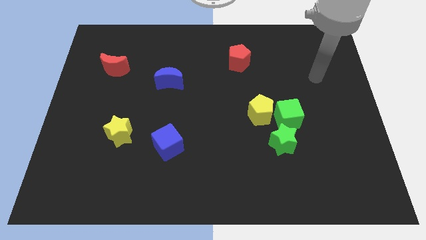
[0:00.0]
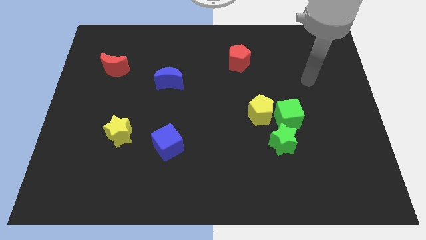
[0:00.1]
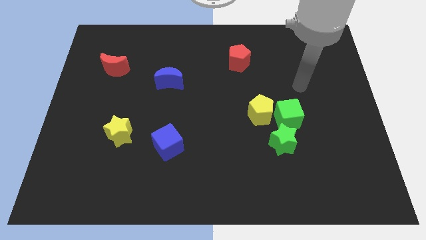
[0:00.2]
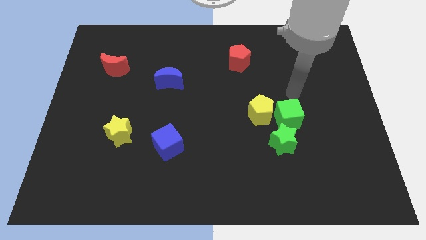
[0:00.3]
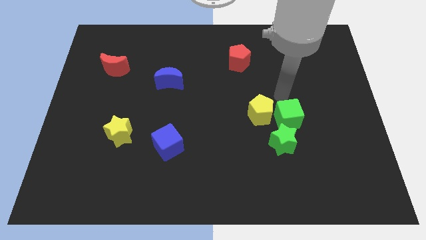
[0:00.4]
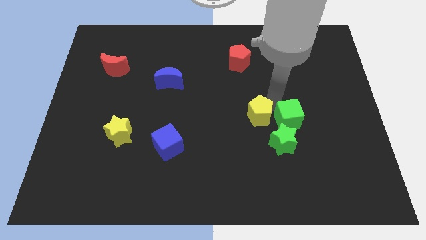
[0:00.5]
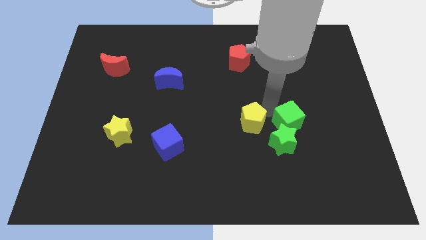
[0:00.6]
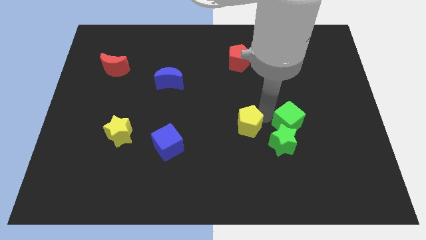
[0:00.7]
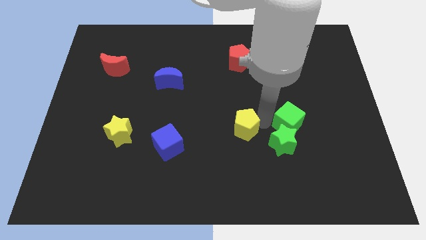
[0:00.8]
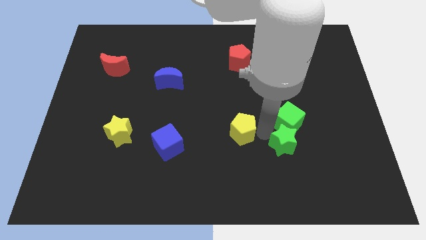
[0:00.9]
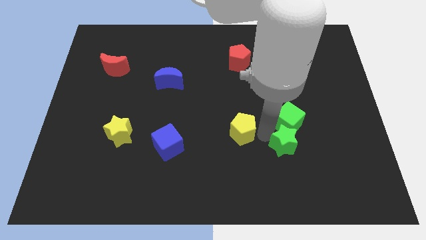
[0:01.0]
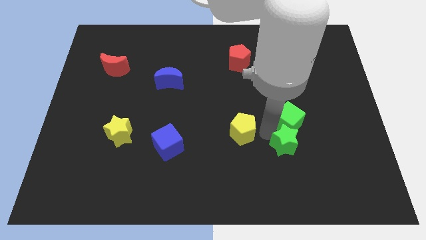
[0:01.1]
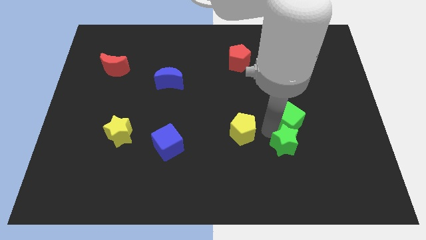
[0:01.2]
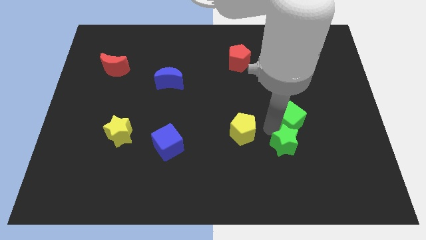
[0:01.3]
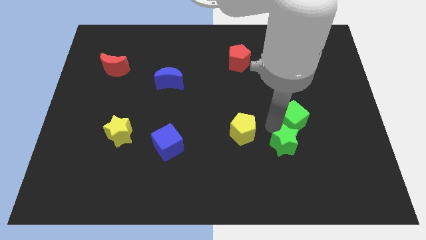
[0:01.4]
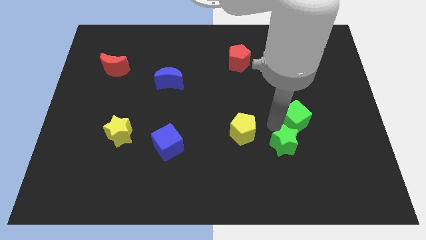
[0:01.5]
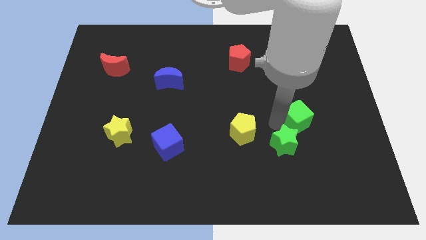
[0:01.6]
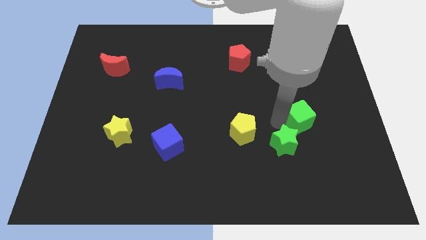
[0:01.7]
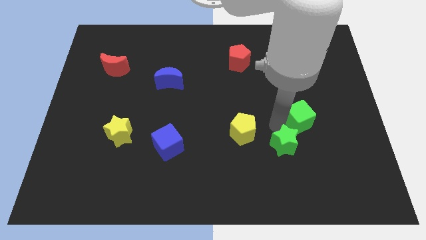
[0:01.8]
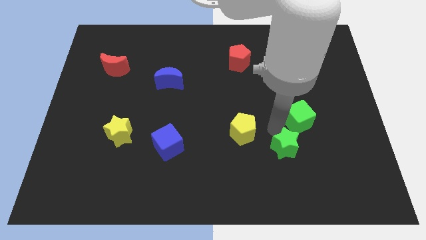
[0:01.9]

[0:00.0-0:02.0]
pull the green cube apart from the yellow pentagon and green star

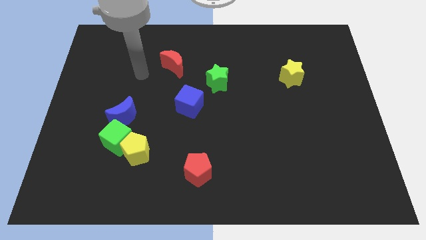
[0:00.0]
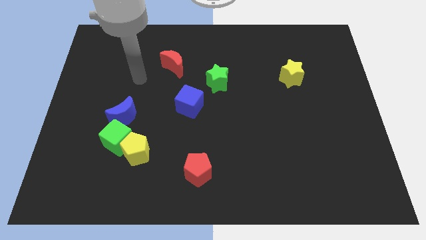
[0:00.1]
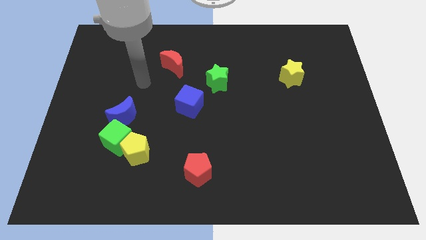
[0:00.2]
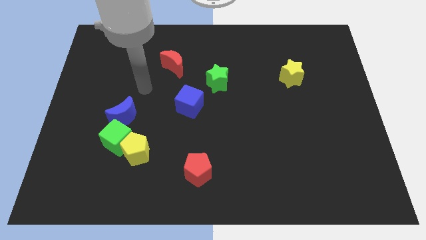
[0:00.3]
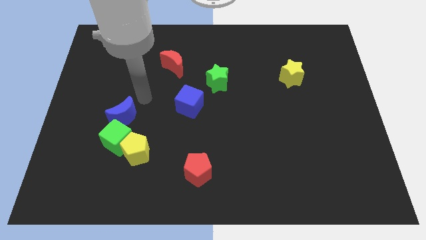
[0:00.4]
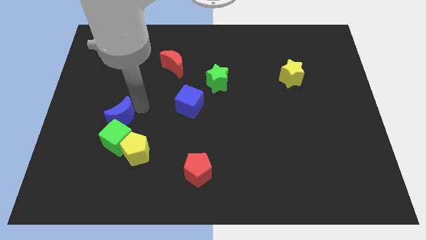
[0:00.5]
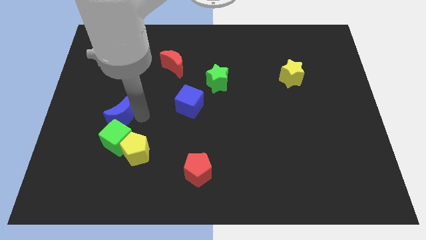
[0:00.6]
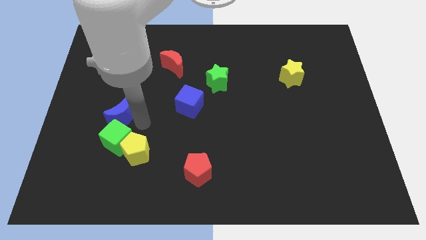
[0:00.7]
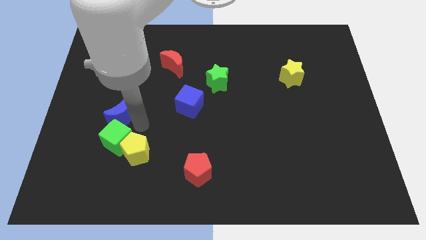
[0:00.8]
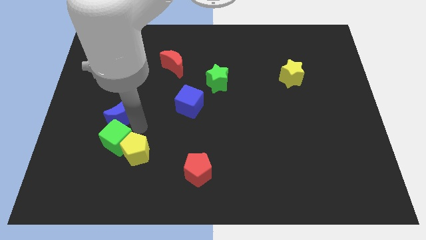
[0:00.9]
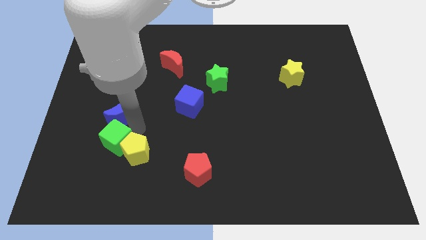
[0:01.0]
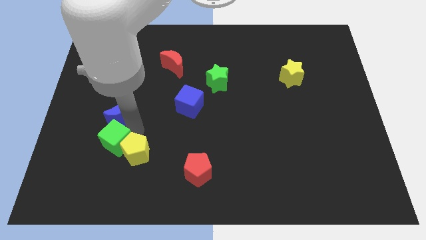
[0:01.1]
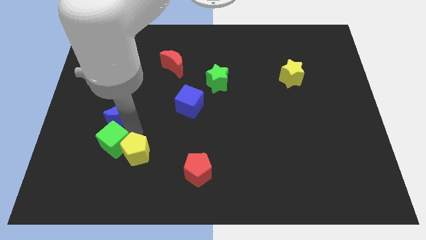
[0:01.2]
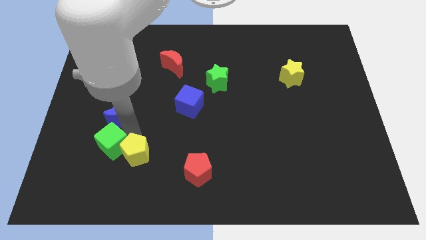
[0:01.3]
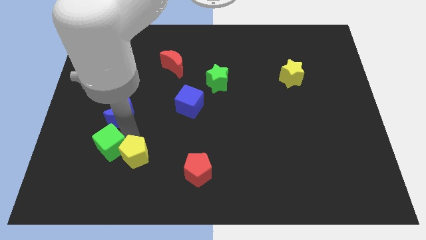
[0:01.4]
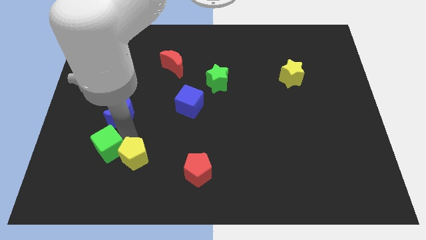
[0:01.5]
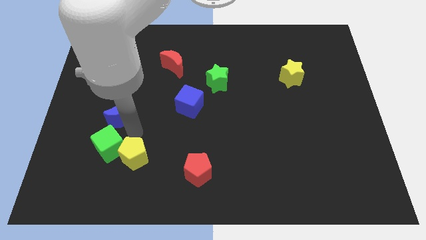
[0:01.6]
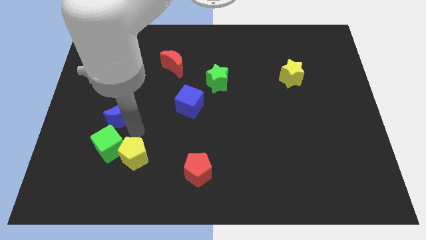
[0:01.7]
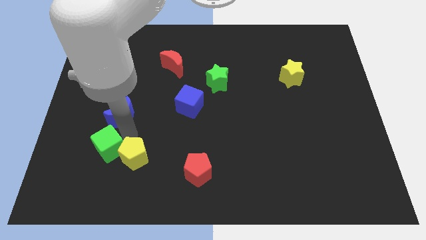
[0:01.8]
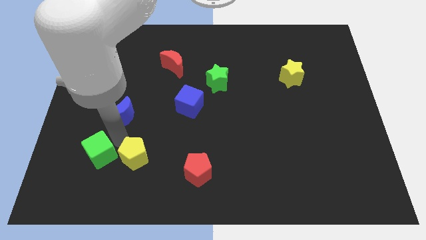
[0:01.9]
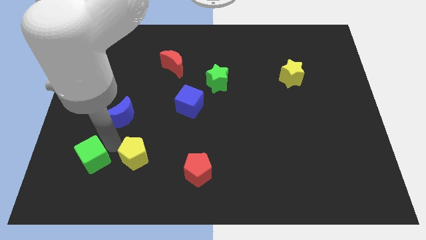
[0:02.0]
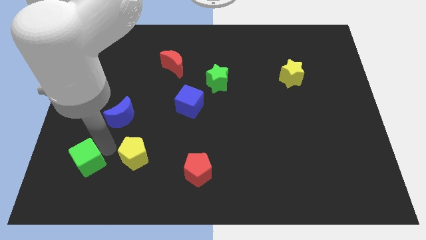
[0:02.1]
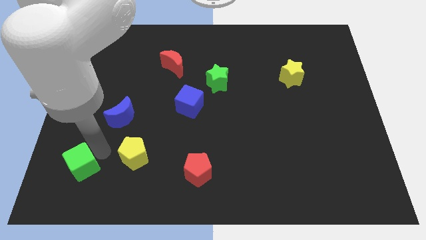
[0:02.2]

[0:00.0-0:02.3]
move the green cube away from the yellow pentagon and blue moon

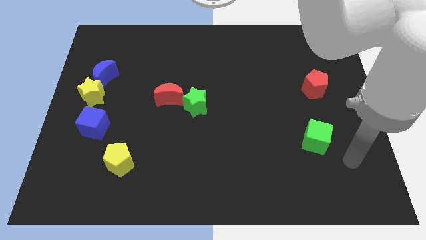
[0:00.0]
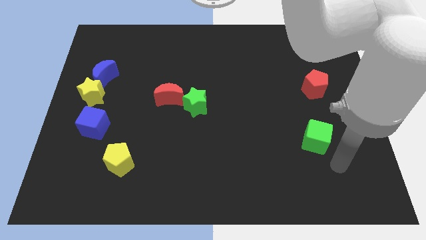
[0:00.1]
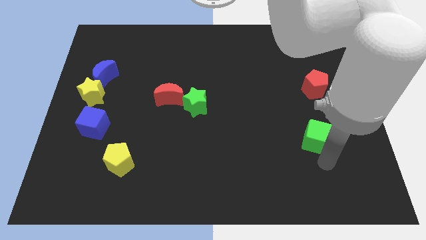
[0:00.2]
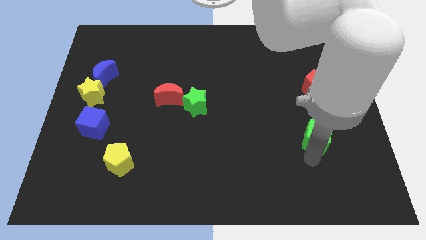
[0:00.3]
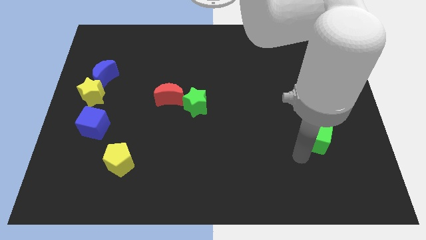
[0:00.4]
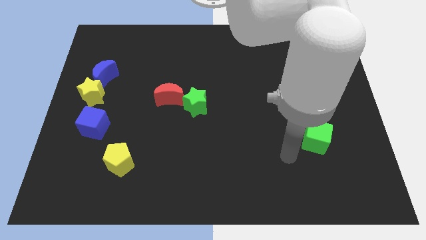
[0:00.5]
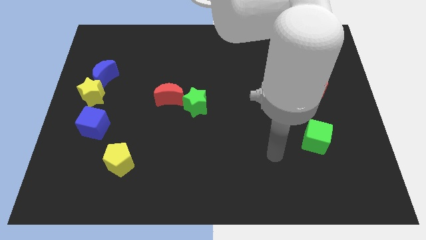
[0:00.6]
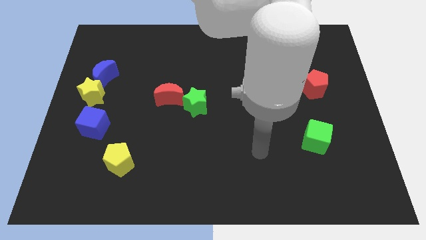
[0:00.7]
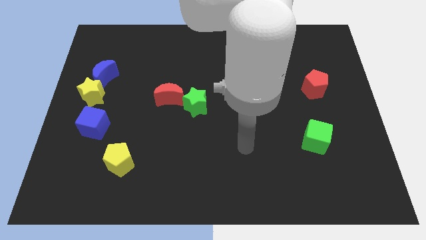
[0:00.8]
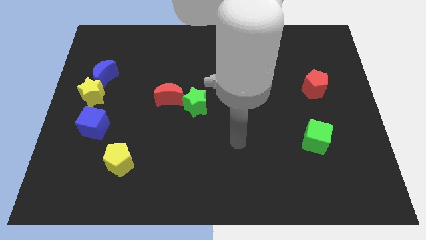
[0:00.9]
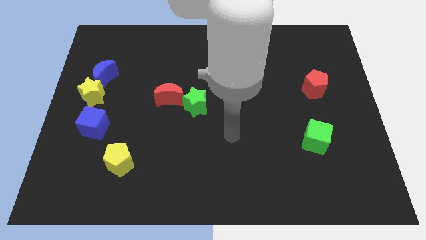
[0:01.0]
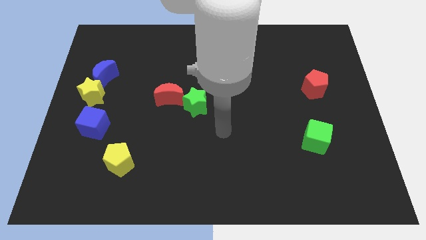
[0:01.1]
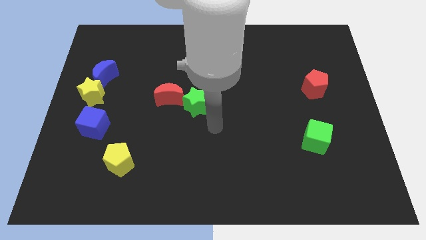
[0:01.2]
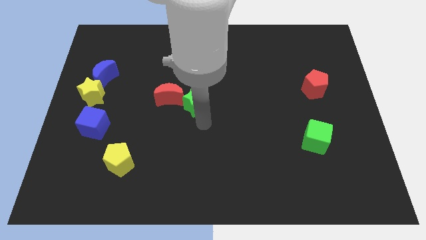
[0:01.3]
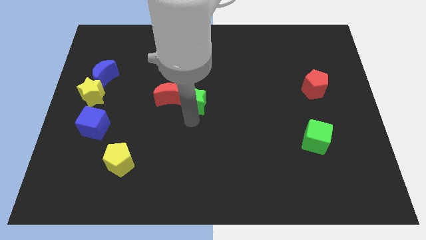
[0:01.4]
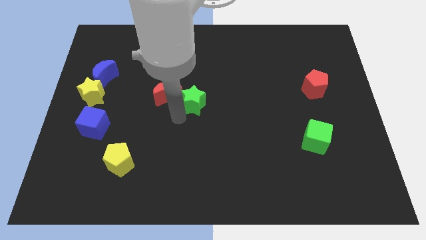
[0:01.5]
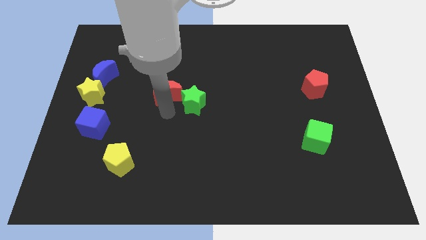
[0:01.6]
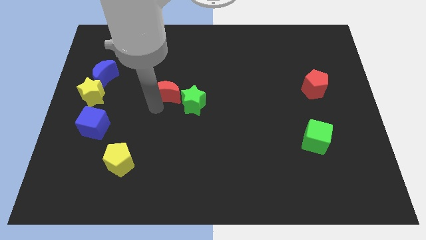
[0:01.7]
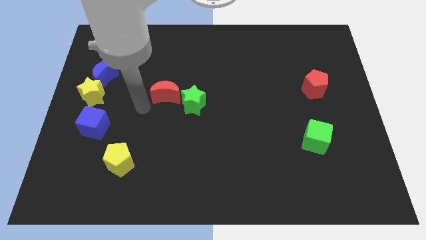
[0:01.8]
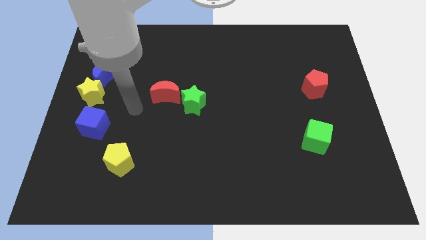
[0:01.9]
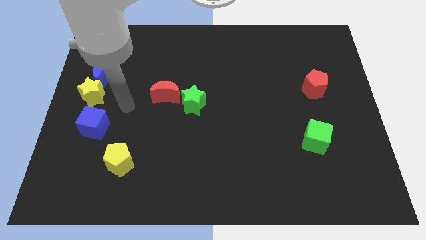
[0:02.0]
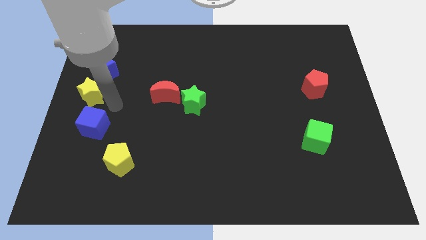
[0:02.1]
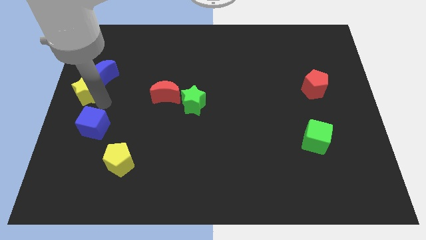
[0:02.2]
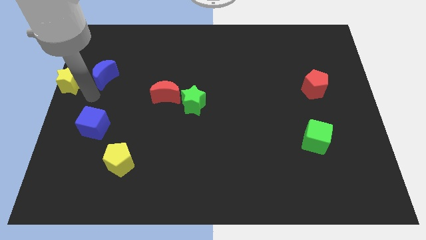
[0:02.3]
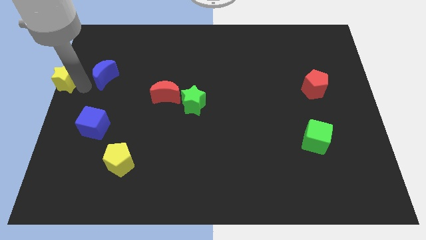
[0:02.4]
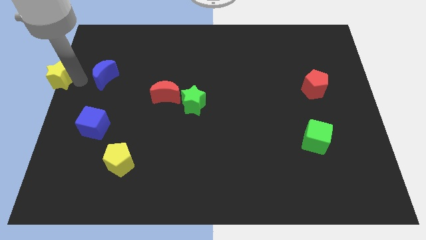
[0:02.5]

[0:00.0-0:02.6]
move the blue moon away from the yellow star

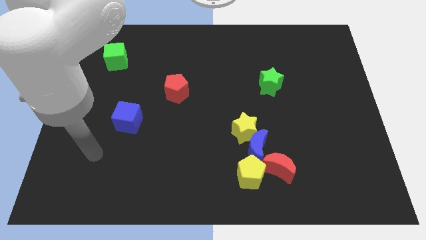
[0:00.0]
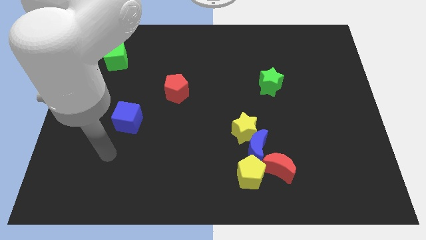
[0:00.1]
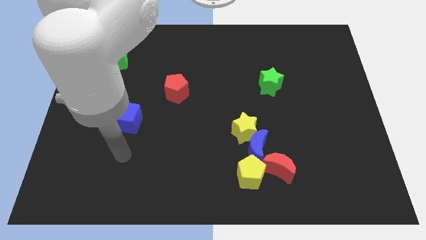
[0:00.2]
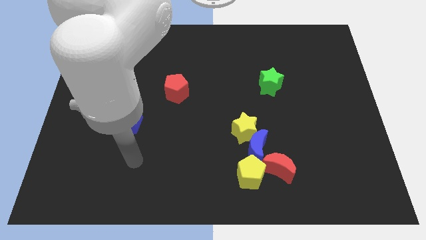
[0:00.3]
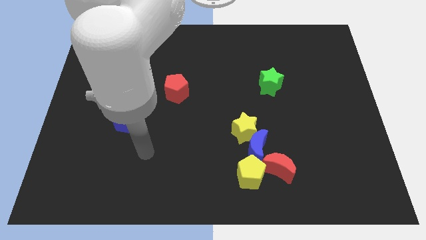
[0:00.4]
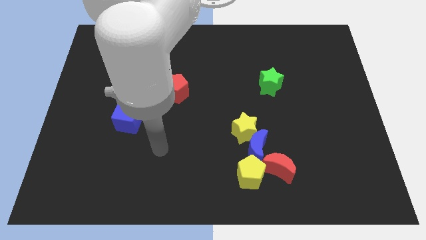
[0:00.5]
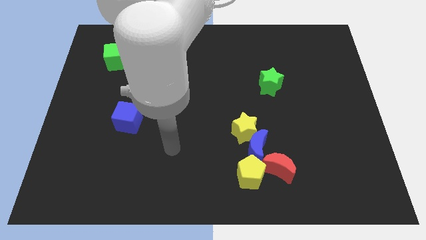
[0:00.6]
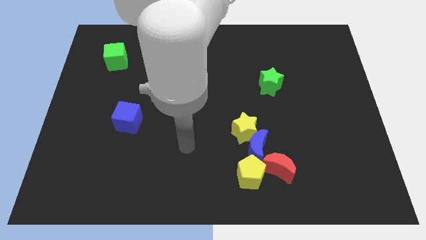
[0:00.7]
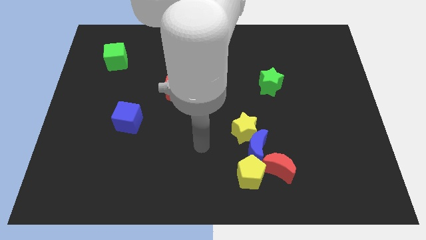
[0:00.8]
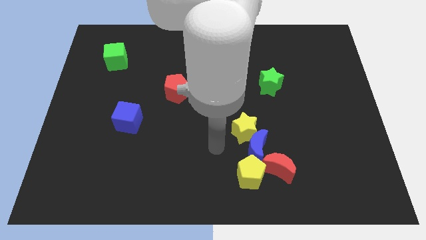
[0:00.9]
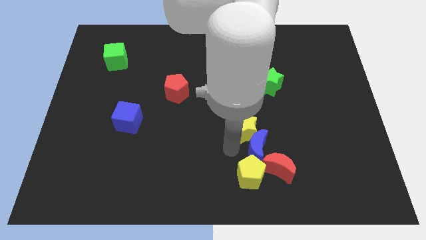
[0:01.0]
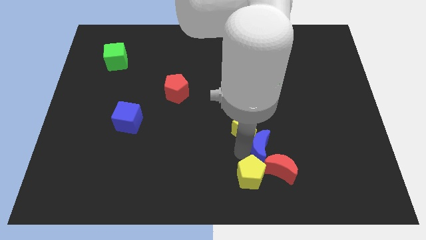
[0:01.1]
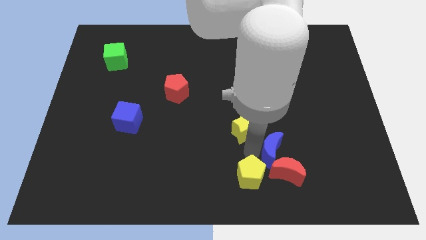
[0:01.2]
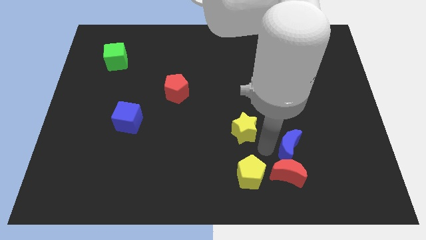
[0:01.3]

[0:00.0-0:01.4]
move the yellow star away from the blue moon

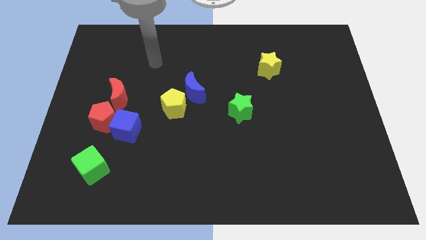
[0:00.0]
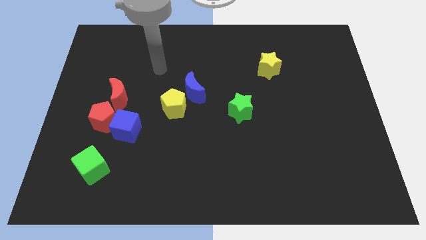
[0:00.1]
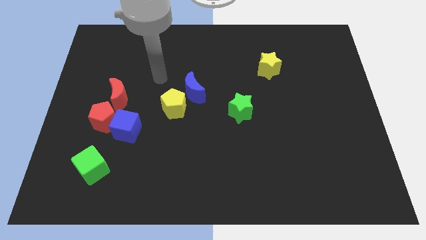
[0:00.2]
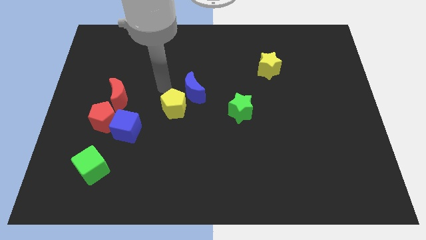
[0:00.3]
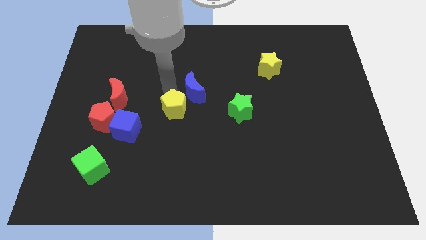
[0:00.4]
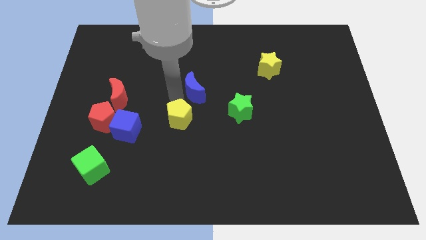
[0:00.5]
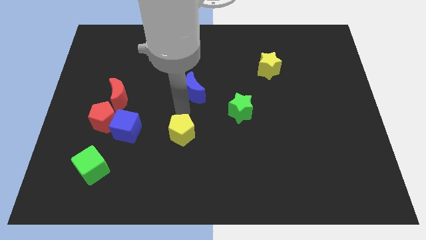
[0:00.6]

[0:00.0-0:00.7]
pull the blue moon apart from the yellow pentagon

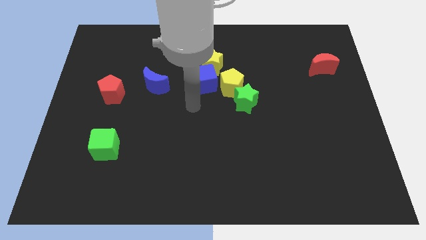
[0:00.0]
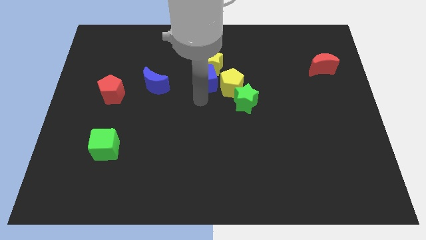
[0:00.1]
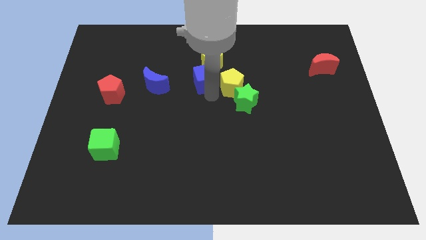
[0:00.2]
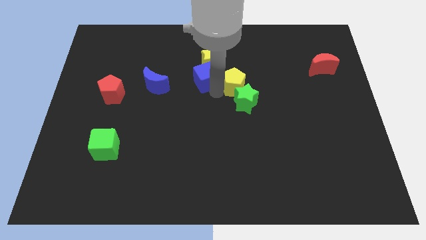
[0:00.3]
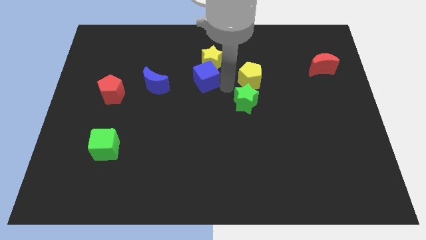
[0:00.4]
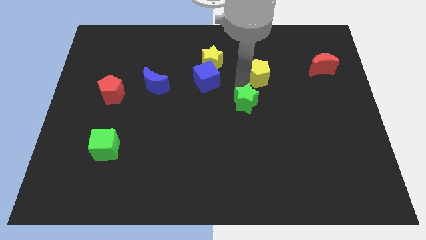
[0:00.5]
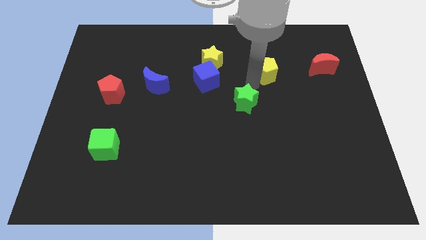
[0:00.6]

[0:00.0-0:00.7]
move the green star away from the yellow pentagon
